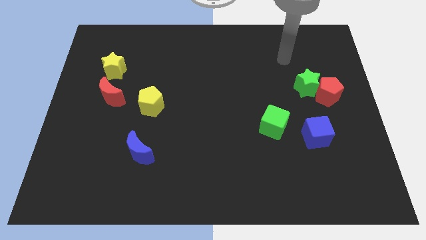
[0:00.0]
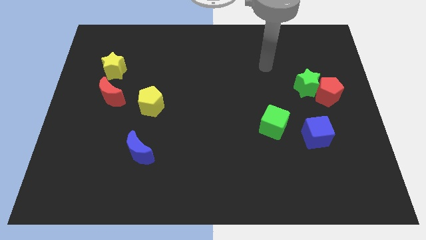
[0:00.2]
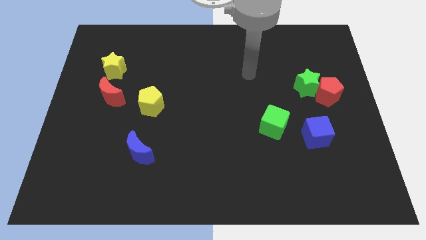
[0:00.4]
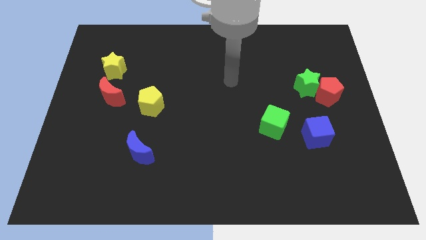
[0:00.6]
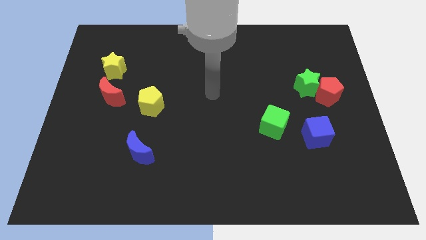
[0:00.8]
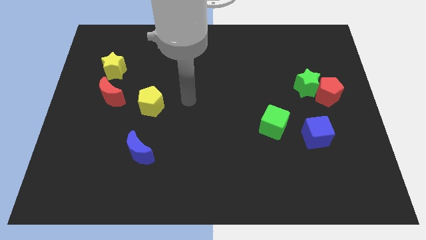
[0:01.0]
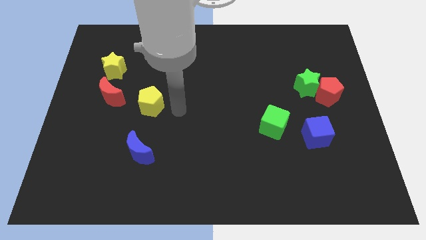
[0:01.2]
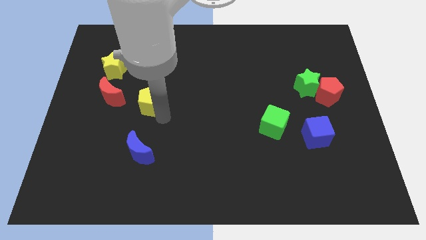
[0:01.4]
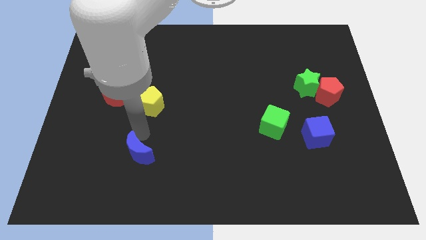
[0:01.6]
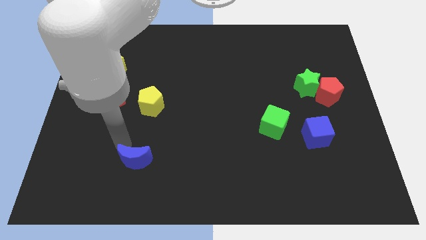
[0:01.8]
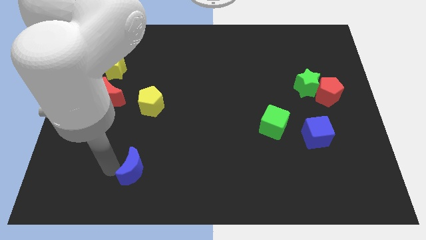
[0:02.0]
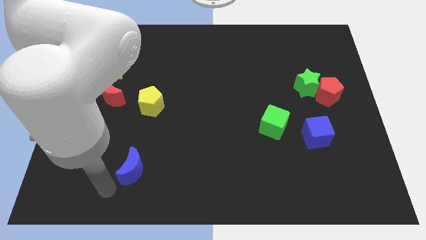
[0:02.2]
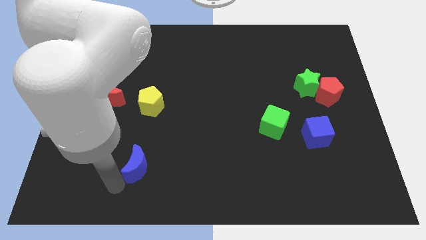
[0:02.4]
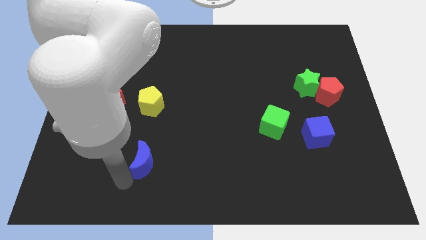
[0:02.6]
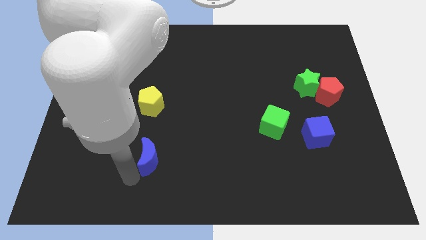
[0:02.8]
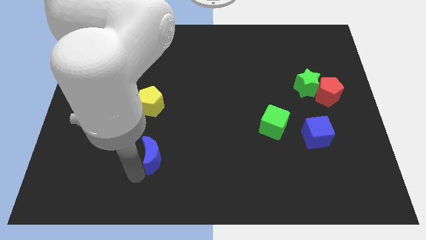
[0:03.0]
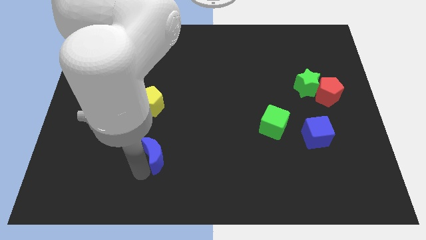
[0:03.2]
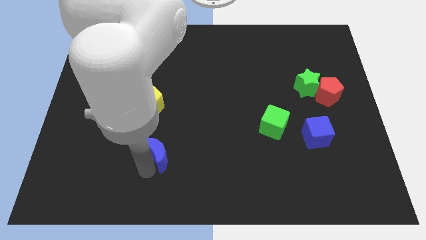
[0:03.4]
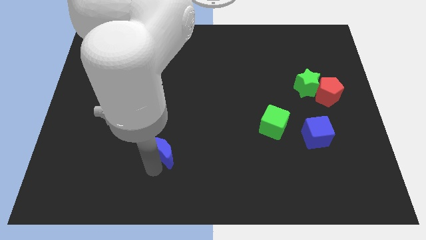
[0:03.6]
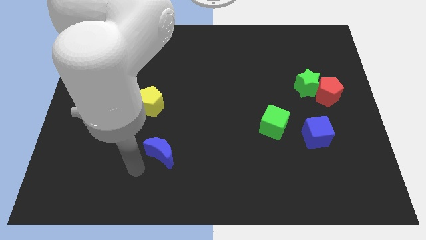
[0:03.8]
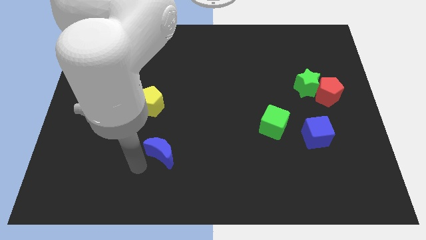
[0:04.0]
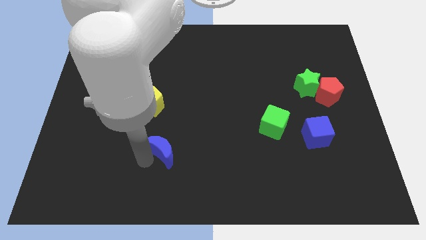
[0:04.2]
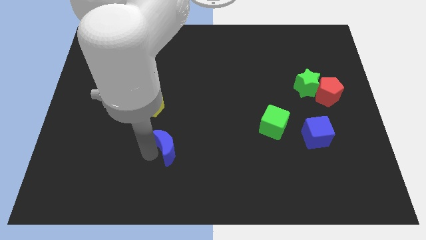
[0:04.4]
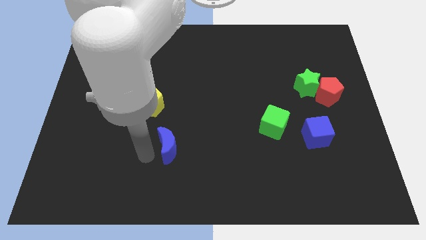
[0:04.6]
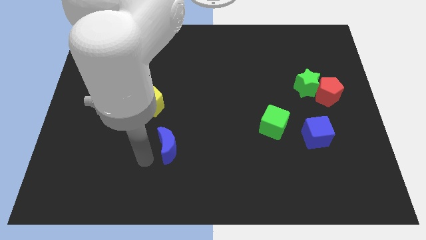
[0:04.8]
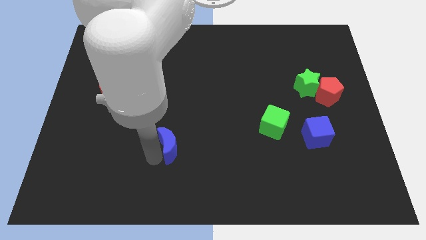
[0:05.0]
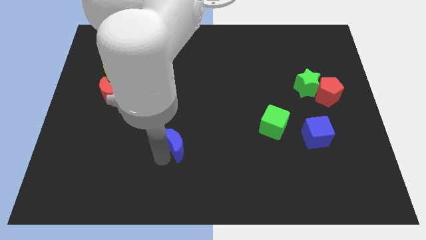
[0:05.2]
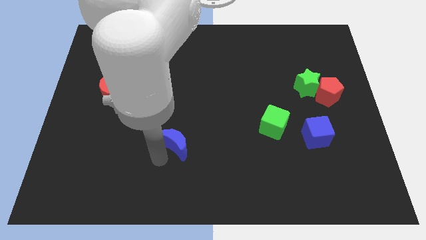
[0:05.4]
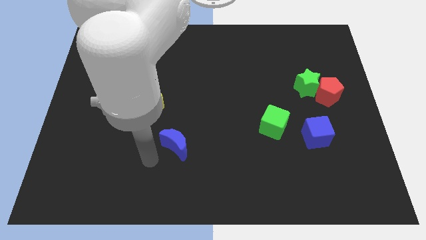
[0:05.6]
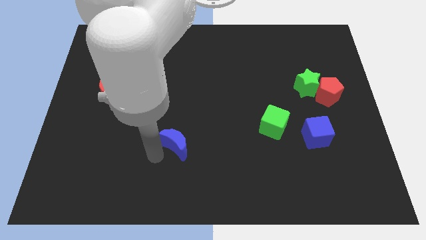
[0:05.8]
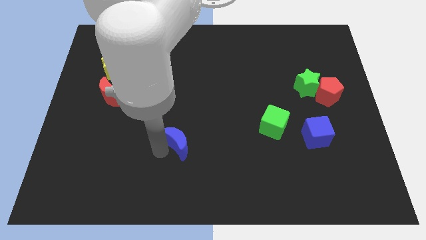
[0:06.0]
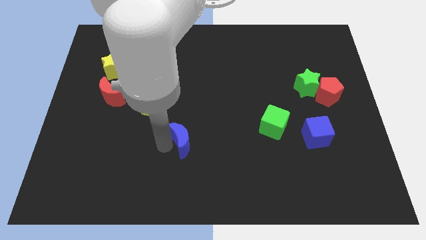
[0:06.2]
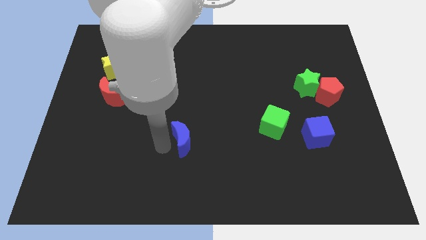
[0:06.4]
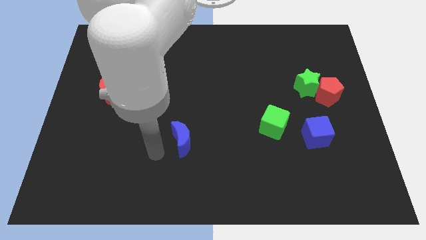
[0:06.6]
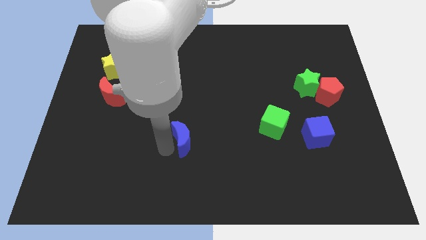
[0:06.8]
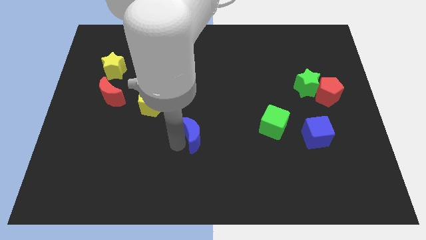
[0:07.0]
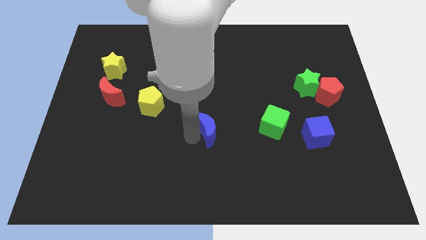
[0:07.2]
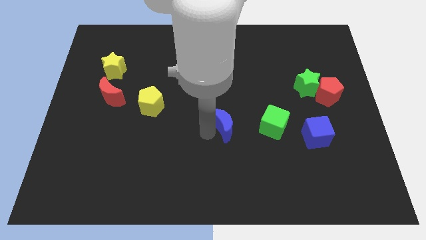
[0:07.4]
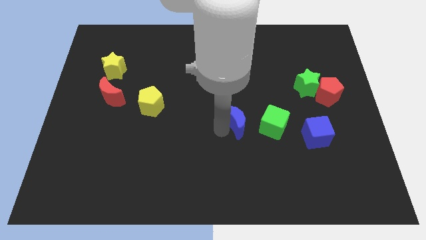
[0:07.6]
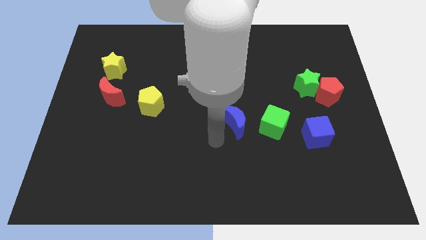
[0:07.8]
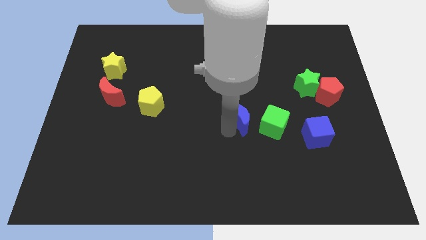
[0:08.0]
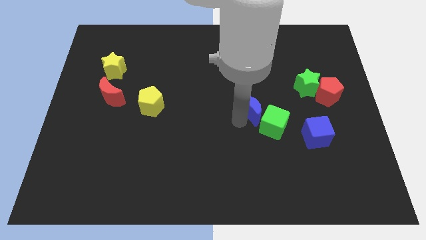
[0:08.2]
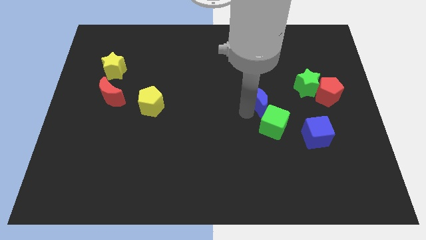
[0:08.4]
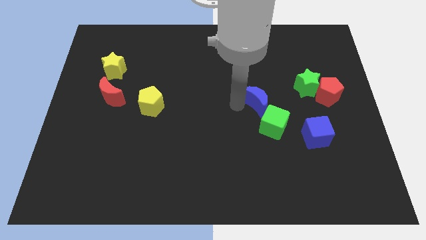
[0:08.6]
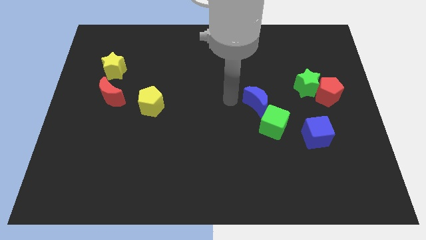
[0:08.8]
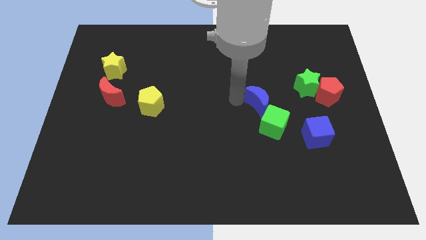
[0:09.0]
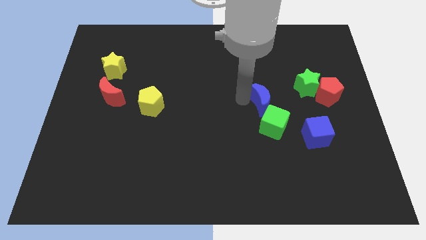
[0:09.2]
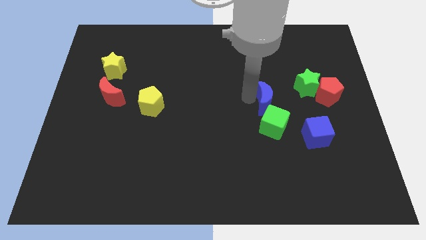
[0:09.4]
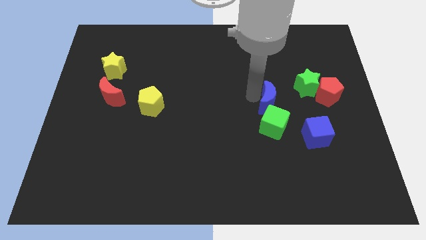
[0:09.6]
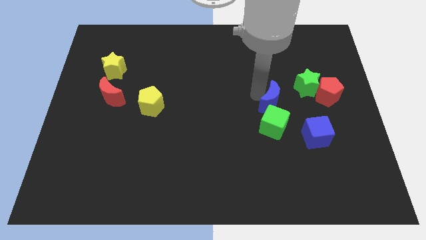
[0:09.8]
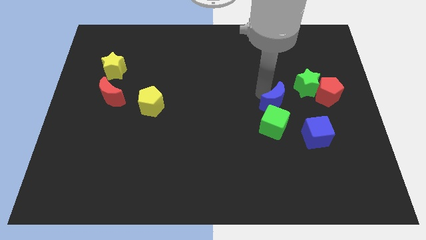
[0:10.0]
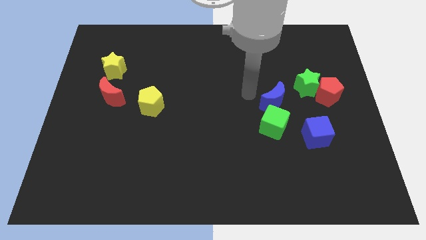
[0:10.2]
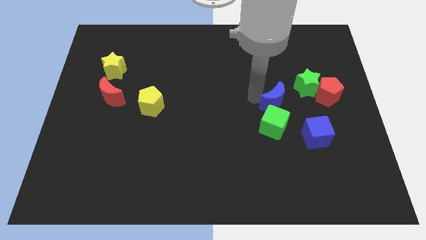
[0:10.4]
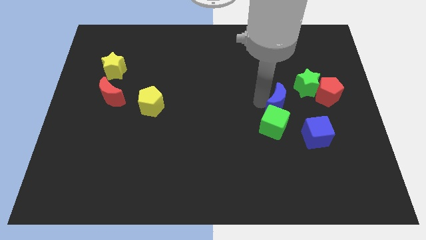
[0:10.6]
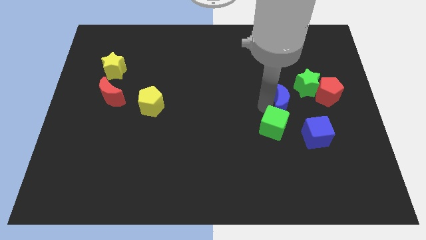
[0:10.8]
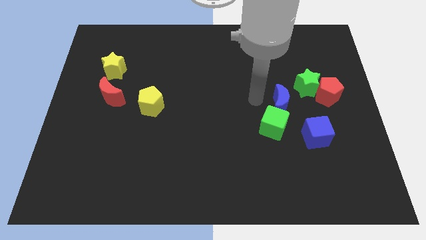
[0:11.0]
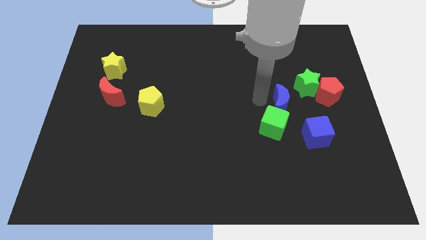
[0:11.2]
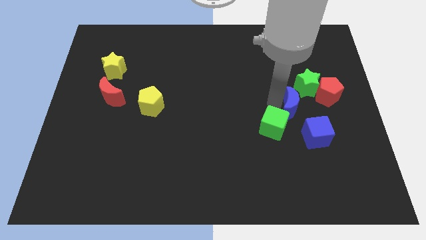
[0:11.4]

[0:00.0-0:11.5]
push the blue moon to the bottom left side of the red pentagon

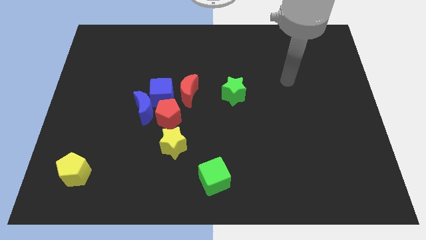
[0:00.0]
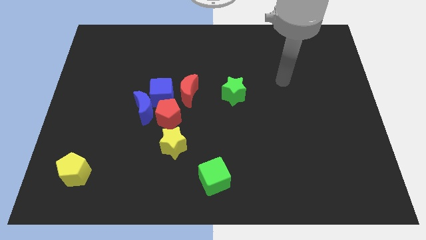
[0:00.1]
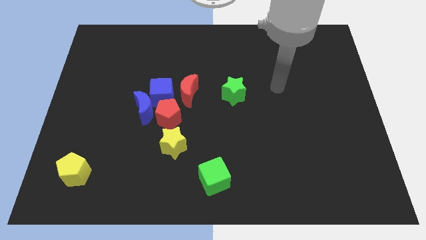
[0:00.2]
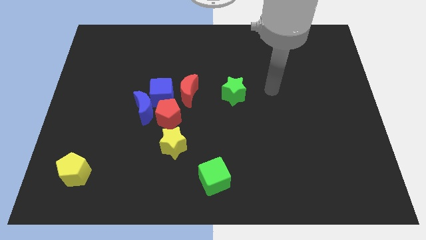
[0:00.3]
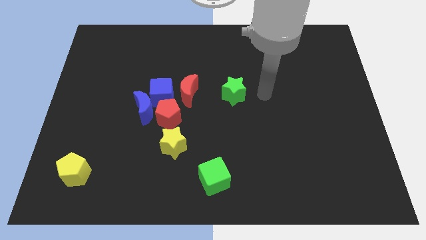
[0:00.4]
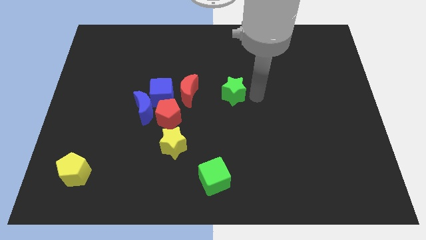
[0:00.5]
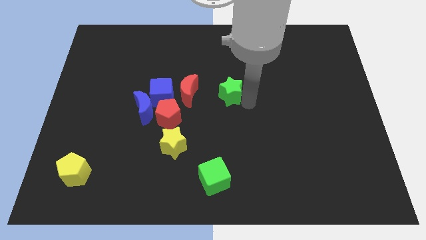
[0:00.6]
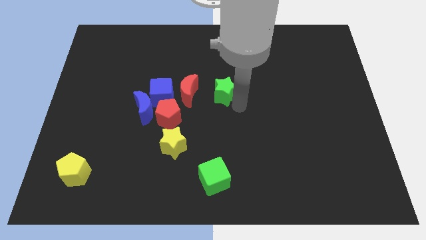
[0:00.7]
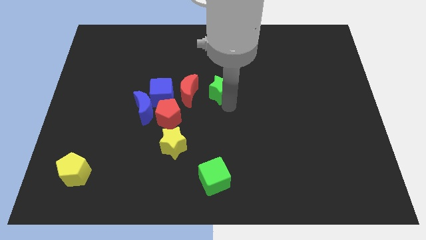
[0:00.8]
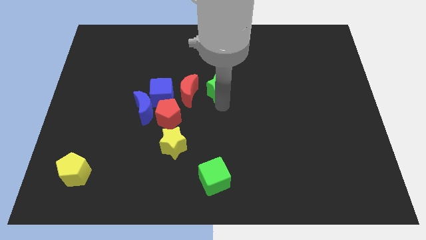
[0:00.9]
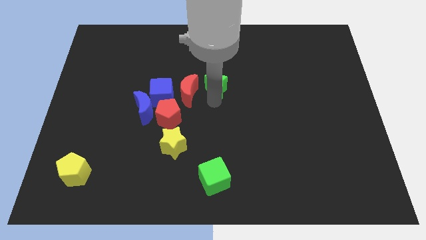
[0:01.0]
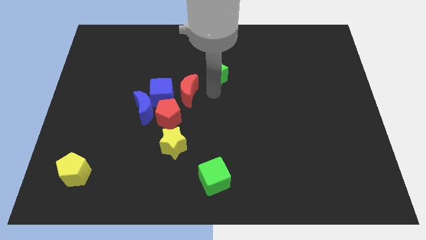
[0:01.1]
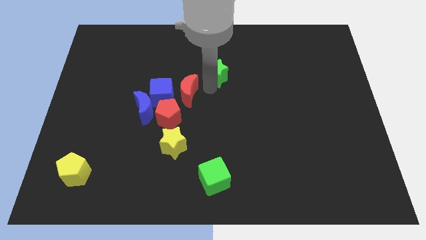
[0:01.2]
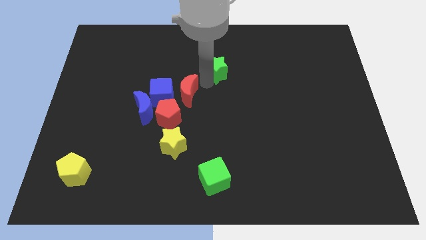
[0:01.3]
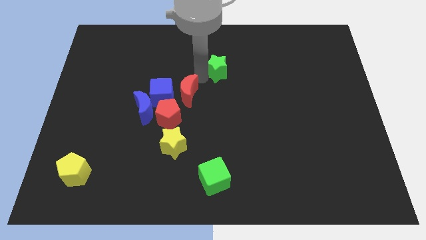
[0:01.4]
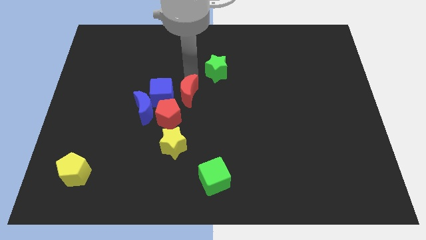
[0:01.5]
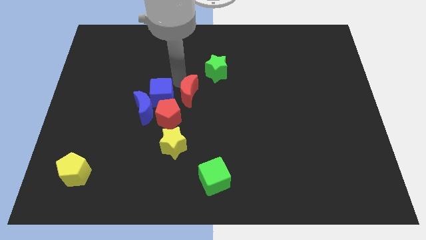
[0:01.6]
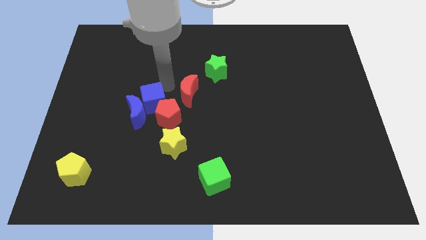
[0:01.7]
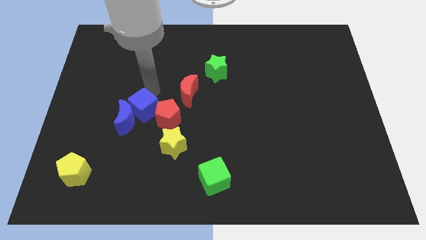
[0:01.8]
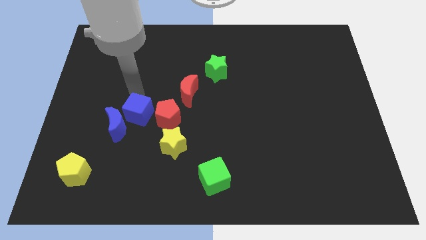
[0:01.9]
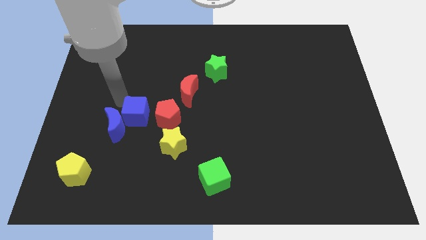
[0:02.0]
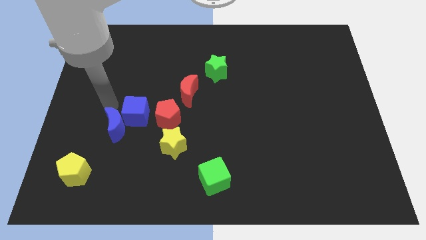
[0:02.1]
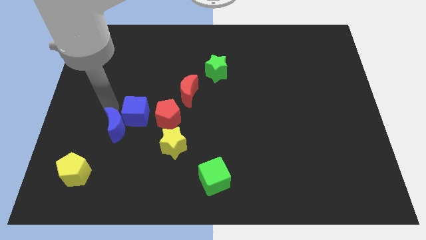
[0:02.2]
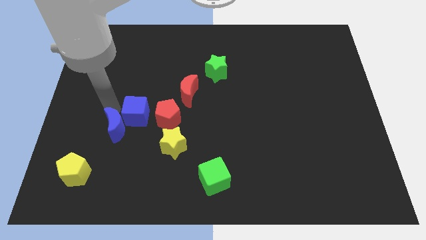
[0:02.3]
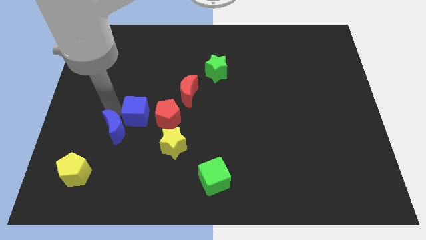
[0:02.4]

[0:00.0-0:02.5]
slide the blue moon left of the yellow star
